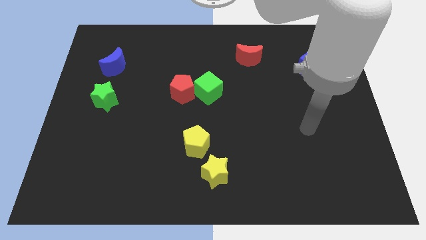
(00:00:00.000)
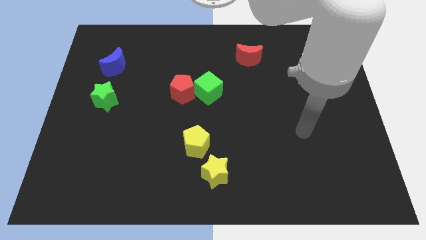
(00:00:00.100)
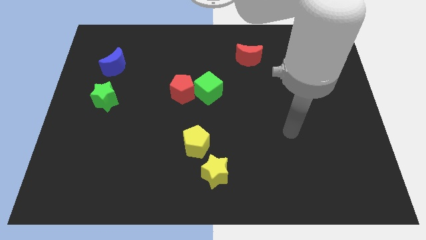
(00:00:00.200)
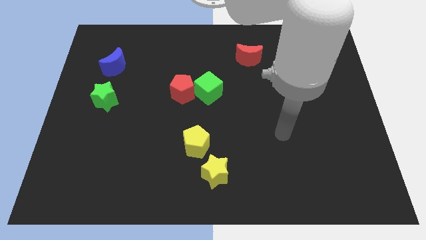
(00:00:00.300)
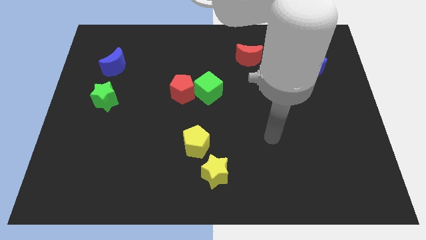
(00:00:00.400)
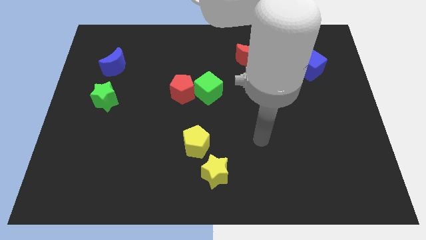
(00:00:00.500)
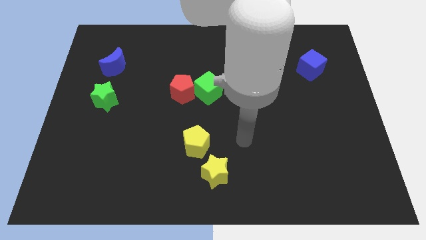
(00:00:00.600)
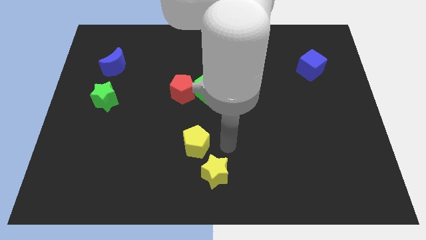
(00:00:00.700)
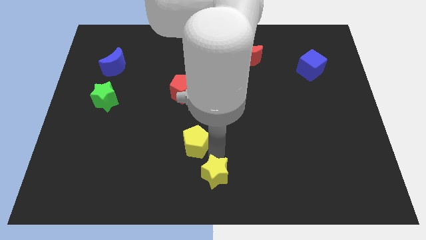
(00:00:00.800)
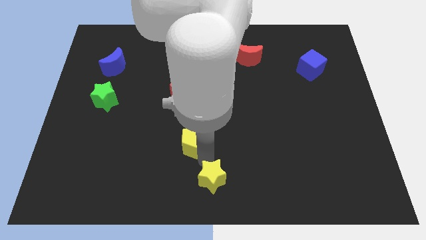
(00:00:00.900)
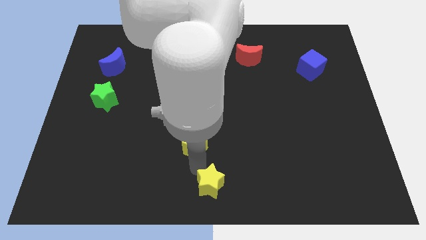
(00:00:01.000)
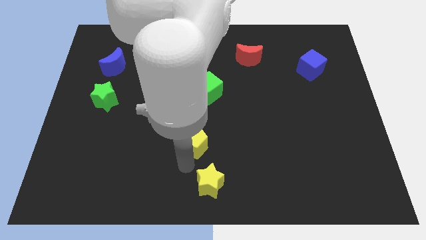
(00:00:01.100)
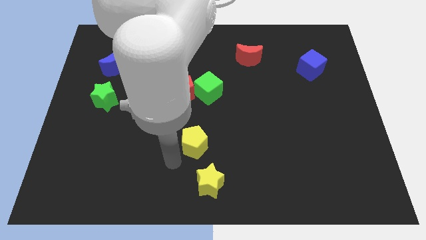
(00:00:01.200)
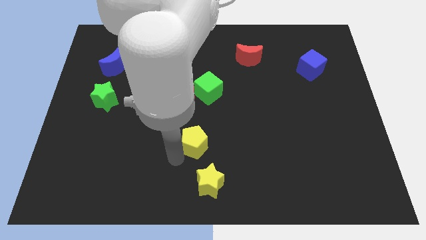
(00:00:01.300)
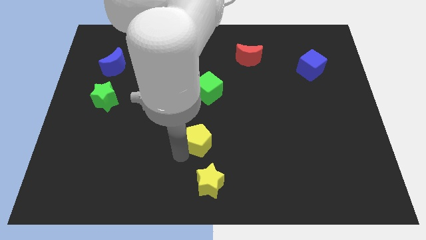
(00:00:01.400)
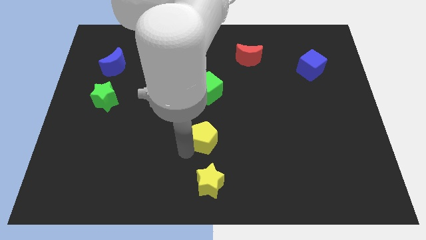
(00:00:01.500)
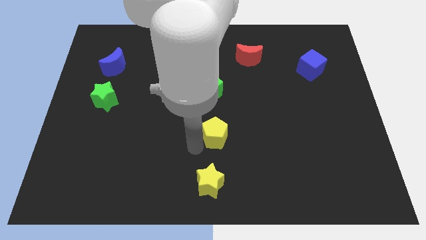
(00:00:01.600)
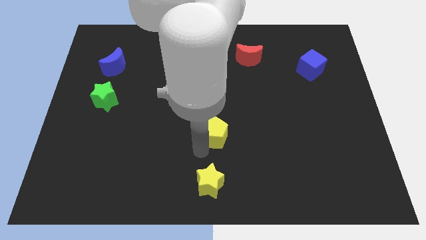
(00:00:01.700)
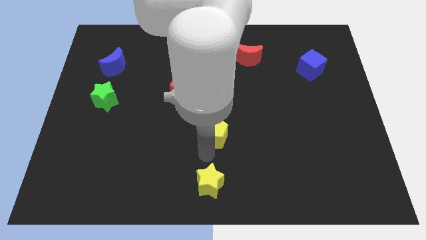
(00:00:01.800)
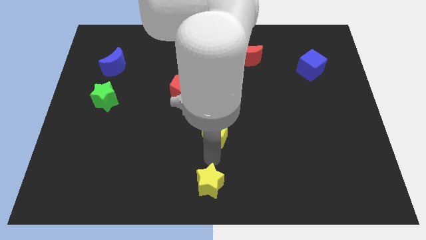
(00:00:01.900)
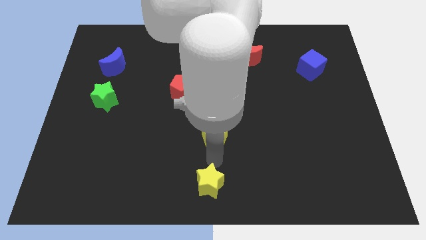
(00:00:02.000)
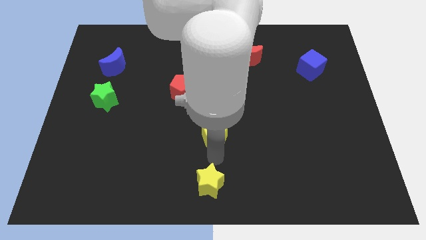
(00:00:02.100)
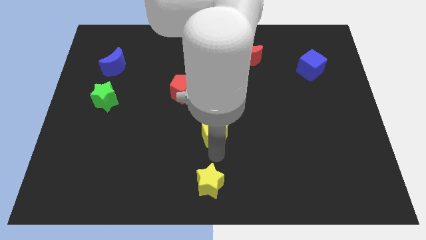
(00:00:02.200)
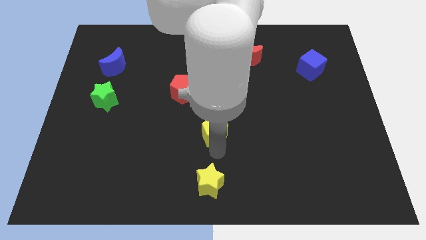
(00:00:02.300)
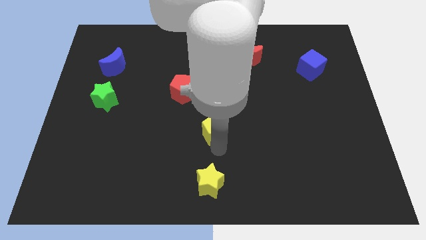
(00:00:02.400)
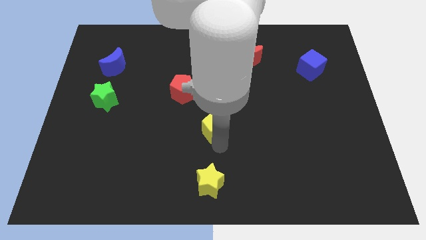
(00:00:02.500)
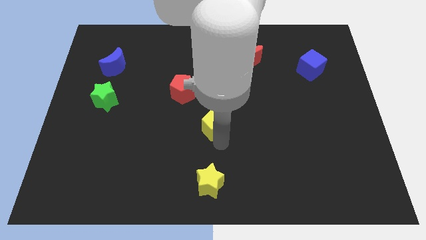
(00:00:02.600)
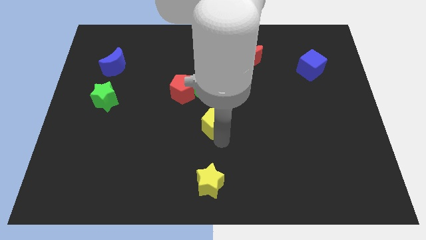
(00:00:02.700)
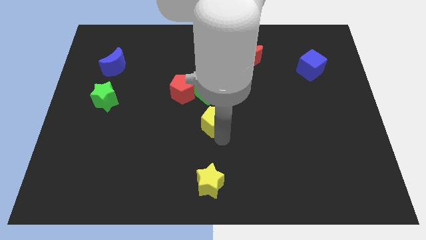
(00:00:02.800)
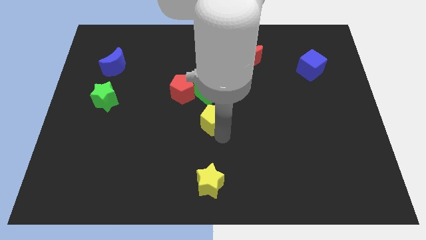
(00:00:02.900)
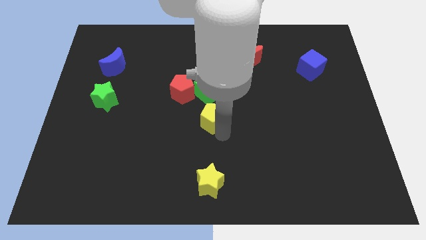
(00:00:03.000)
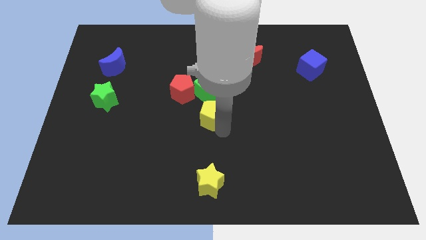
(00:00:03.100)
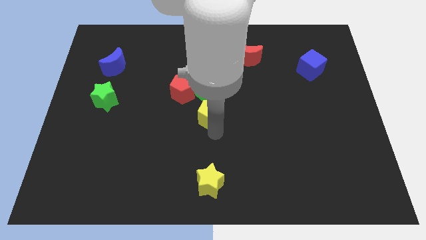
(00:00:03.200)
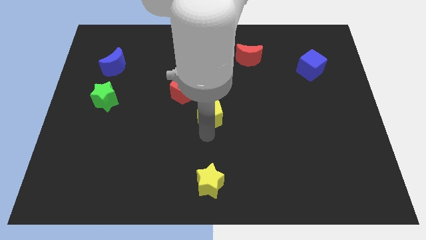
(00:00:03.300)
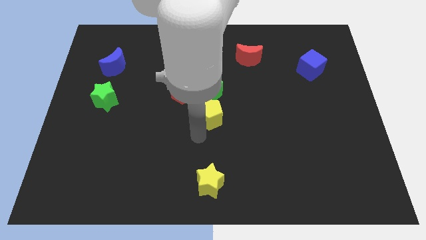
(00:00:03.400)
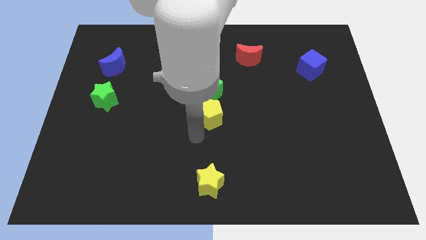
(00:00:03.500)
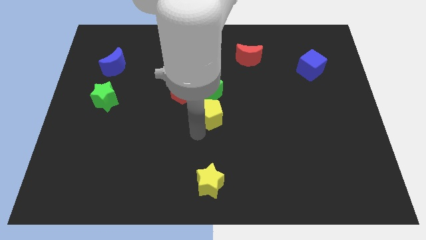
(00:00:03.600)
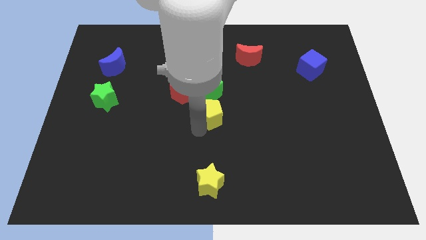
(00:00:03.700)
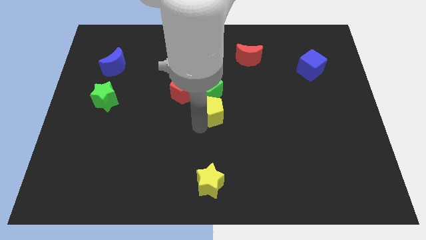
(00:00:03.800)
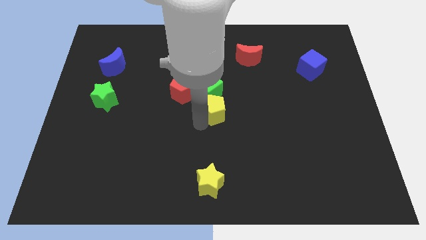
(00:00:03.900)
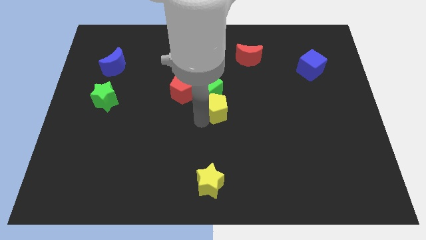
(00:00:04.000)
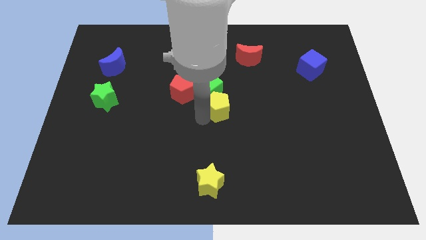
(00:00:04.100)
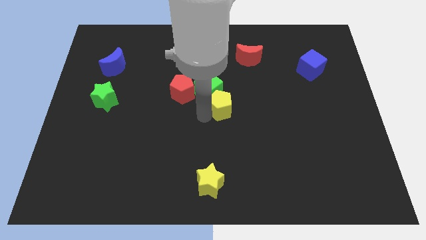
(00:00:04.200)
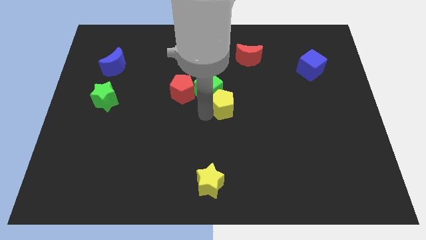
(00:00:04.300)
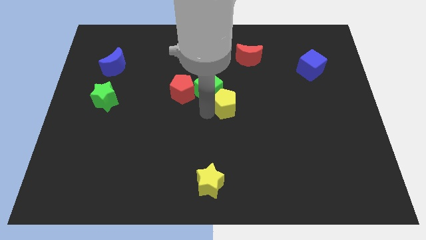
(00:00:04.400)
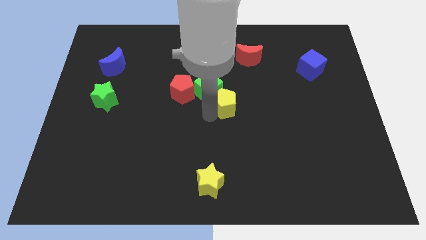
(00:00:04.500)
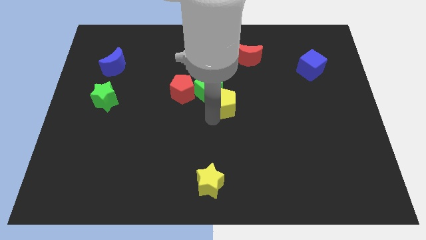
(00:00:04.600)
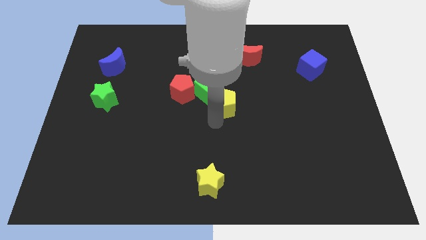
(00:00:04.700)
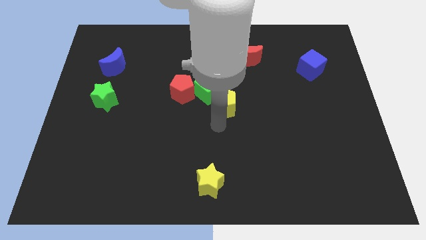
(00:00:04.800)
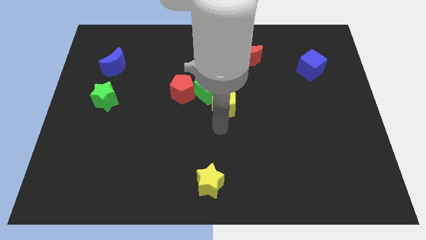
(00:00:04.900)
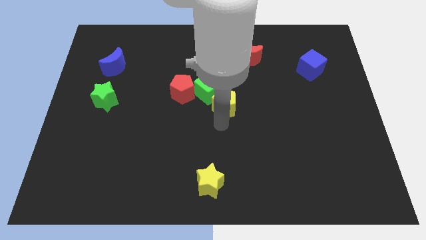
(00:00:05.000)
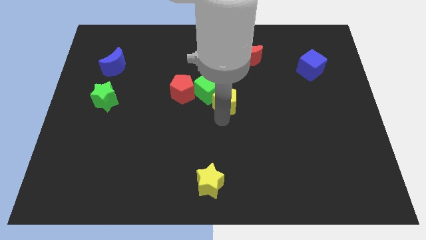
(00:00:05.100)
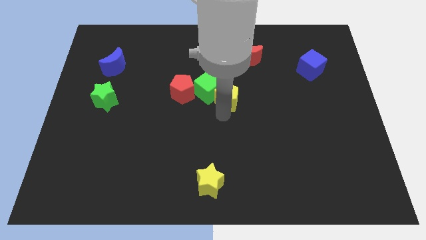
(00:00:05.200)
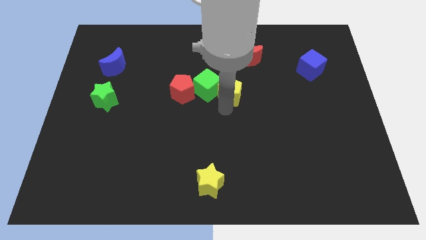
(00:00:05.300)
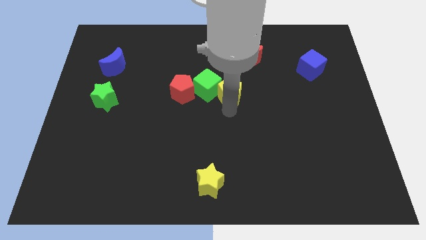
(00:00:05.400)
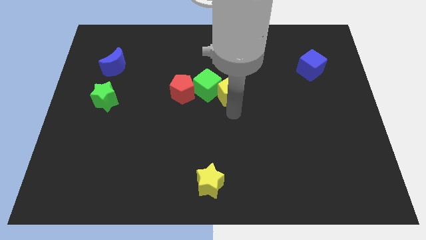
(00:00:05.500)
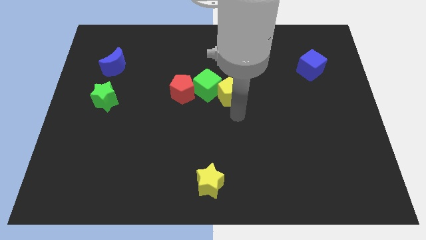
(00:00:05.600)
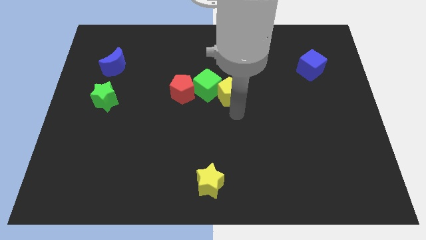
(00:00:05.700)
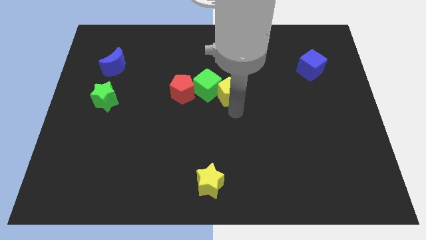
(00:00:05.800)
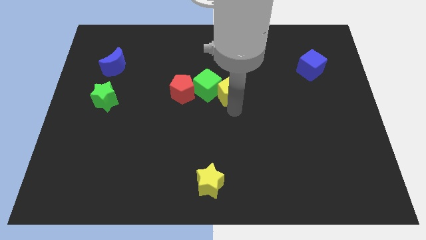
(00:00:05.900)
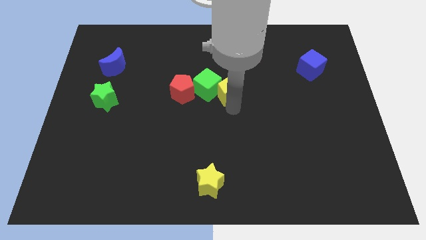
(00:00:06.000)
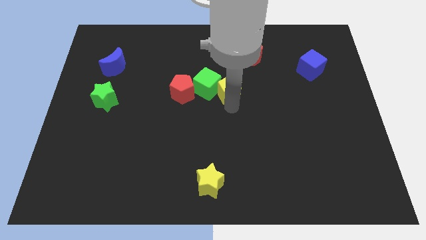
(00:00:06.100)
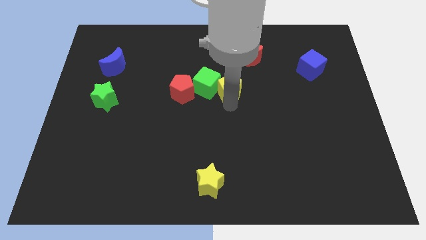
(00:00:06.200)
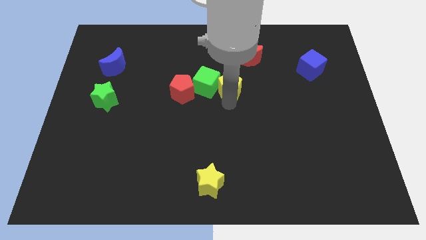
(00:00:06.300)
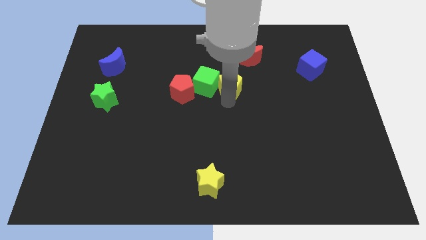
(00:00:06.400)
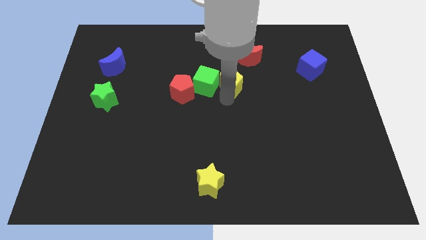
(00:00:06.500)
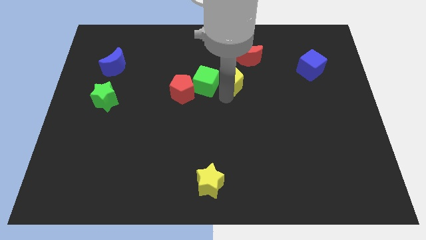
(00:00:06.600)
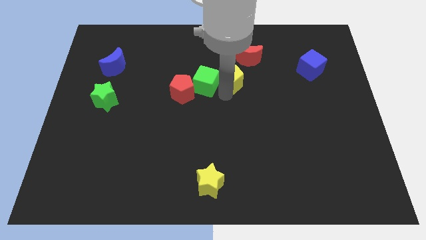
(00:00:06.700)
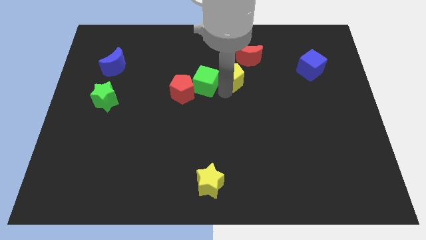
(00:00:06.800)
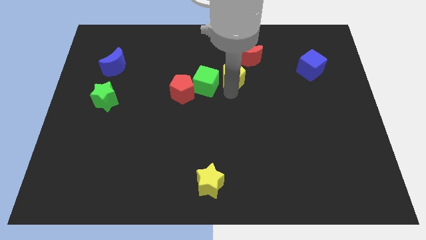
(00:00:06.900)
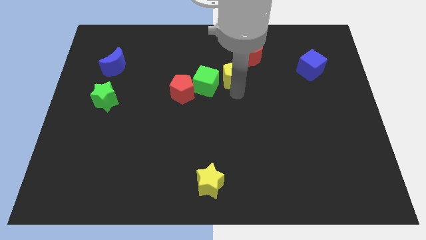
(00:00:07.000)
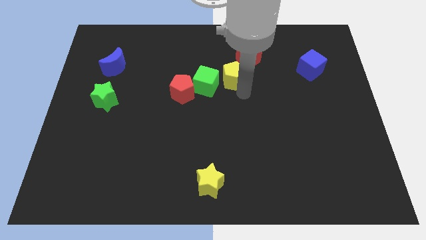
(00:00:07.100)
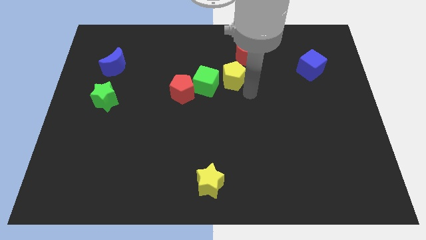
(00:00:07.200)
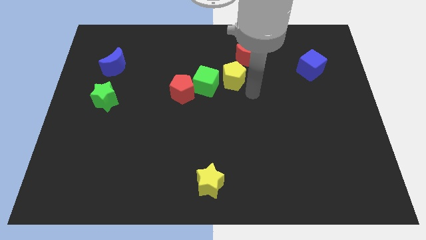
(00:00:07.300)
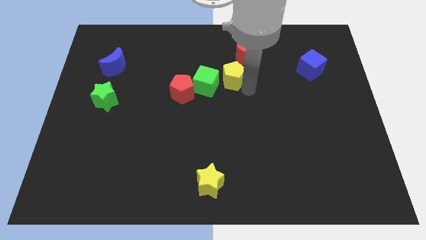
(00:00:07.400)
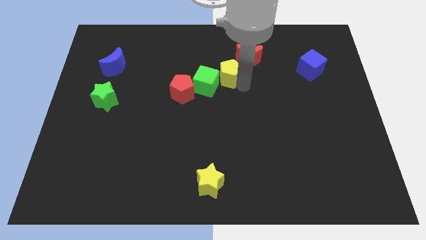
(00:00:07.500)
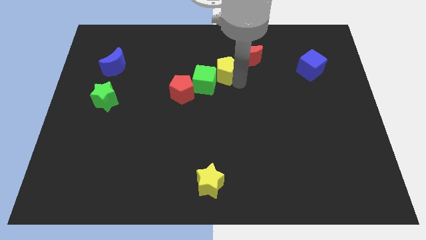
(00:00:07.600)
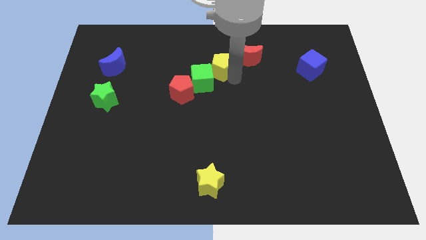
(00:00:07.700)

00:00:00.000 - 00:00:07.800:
push the yellow pentagon to the left of the red moon
